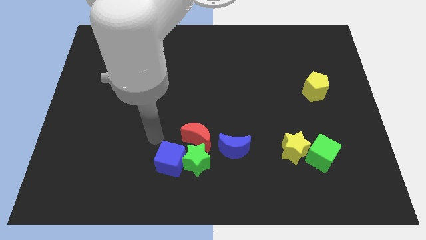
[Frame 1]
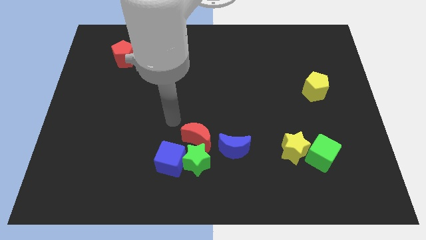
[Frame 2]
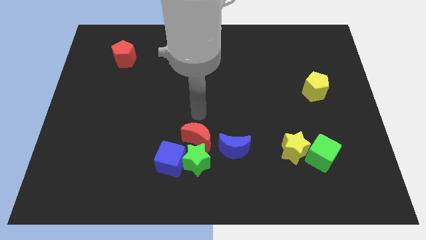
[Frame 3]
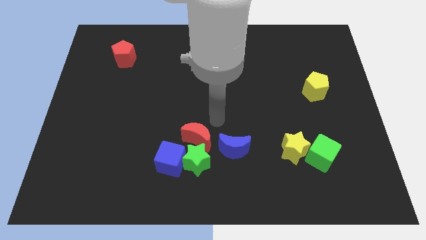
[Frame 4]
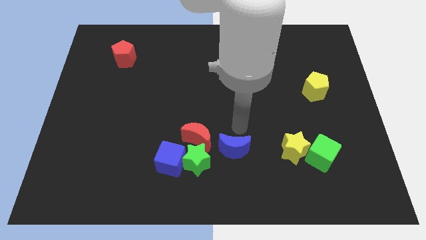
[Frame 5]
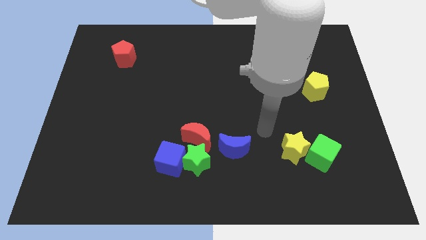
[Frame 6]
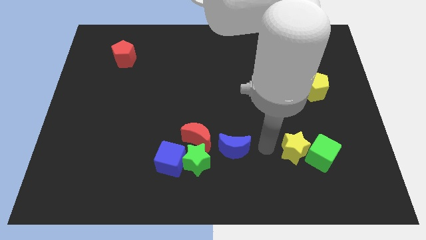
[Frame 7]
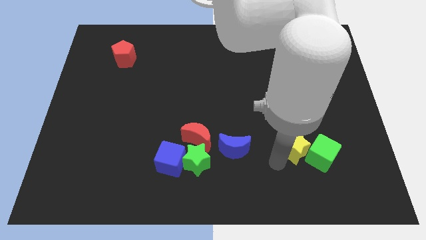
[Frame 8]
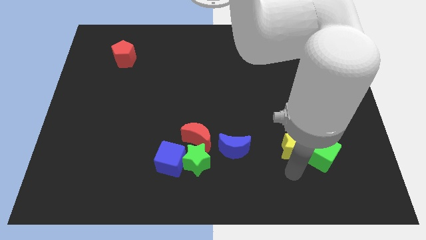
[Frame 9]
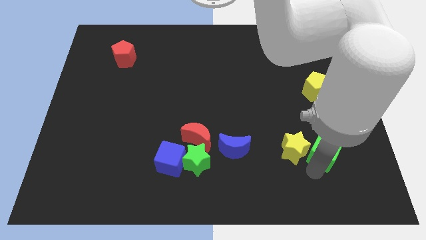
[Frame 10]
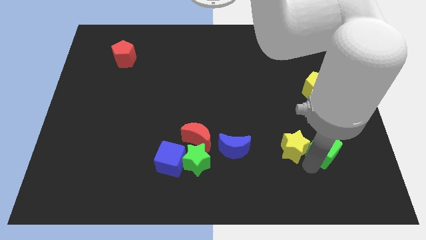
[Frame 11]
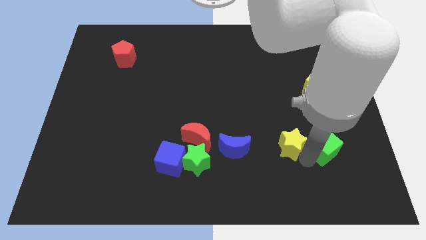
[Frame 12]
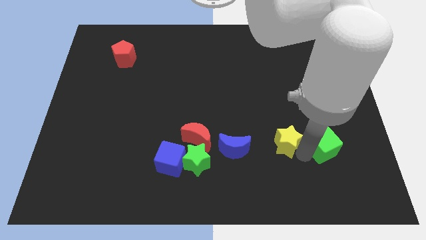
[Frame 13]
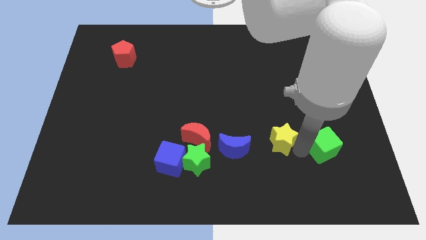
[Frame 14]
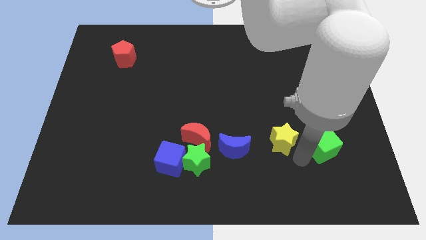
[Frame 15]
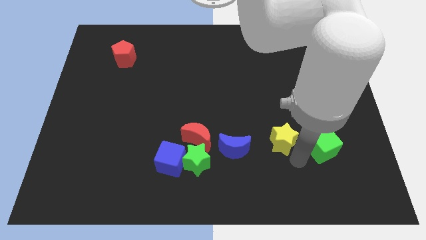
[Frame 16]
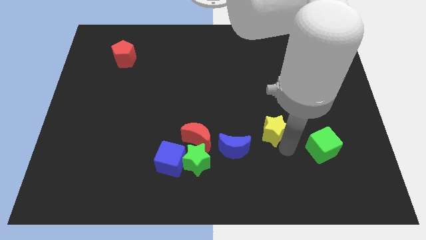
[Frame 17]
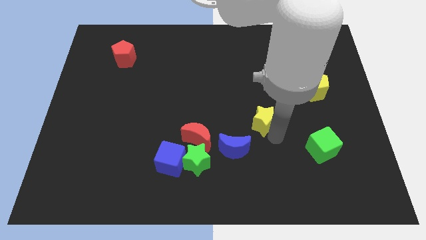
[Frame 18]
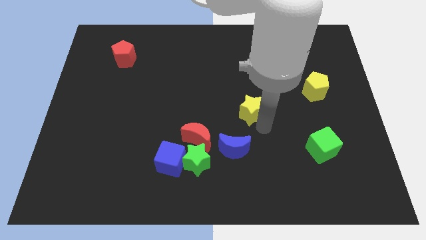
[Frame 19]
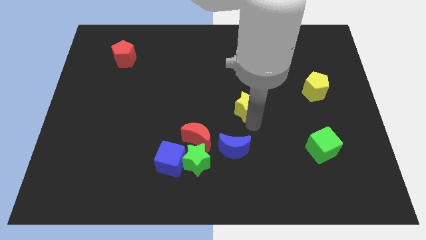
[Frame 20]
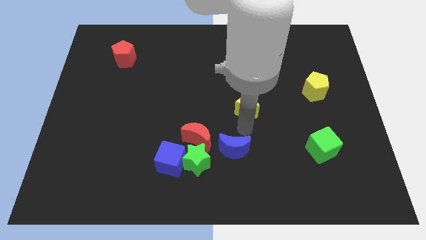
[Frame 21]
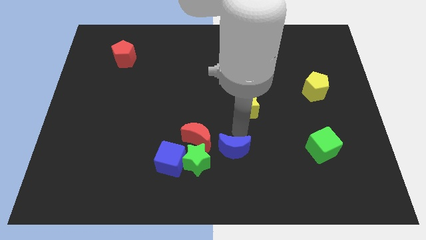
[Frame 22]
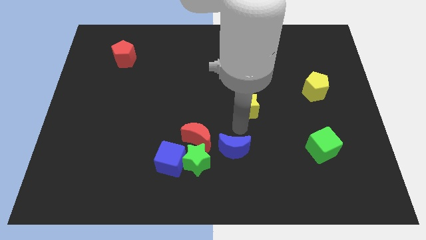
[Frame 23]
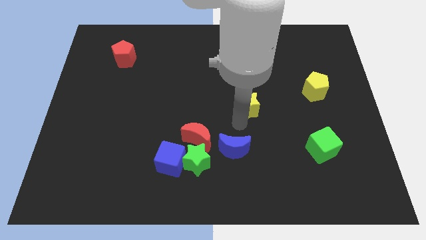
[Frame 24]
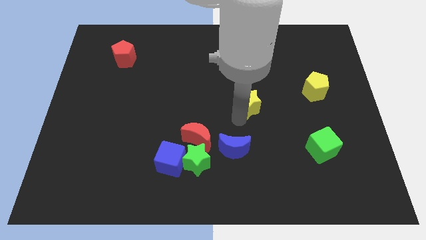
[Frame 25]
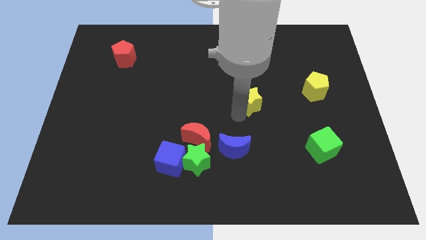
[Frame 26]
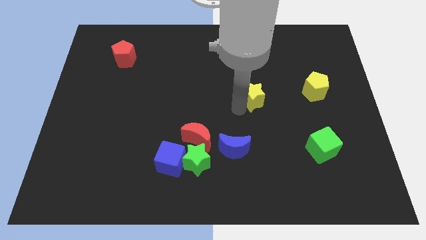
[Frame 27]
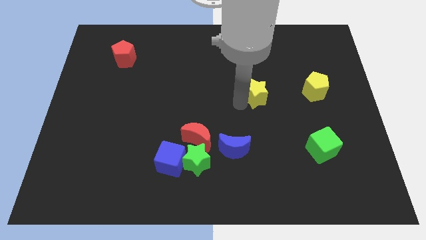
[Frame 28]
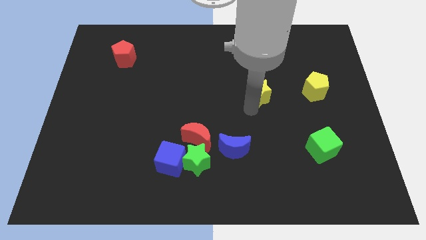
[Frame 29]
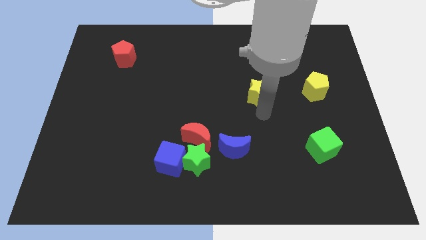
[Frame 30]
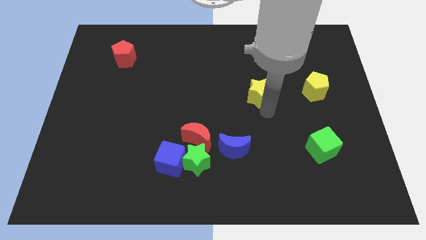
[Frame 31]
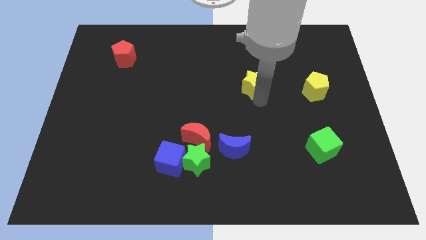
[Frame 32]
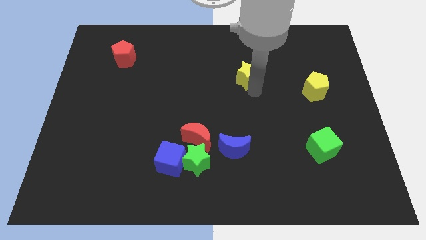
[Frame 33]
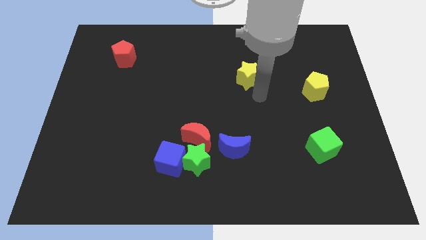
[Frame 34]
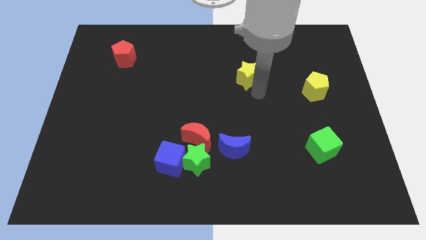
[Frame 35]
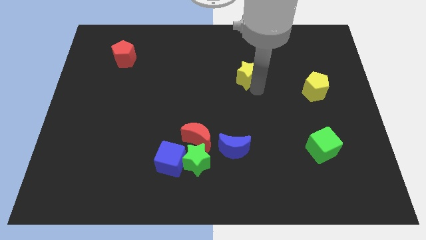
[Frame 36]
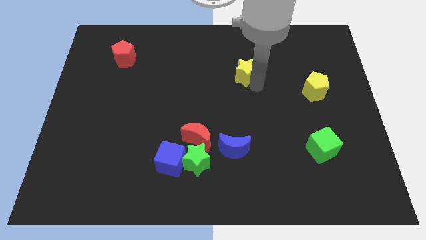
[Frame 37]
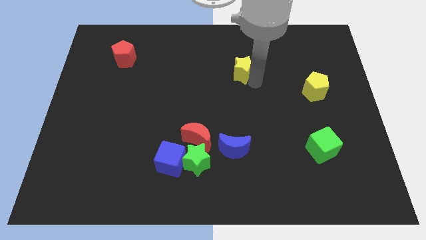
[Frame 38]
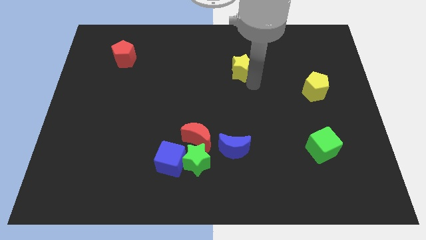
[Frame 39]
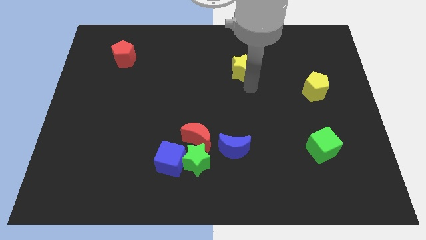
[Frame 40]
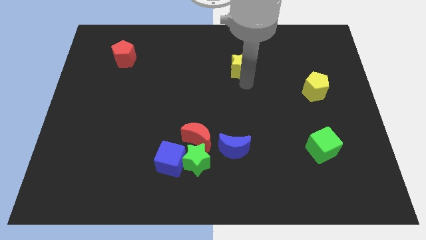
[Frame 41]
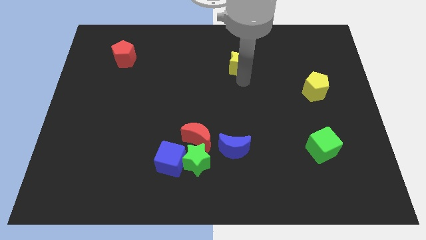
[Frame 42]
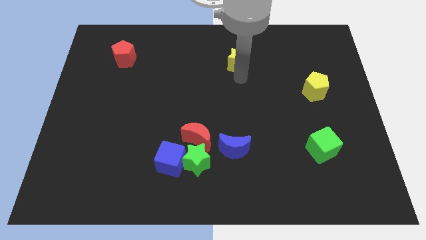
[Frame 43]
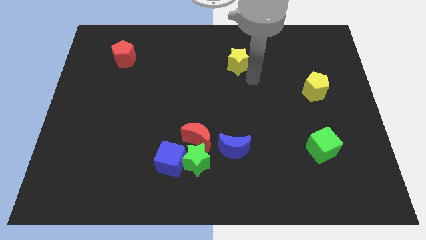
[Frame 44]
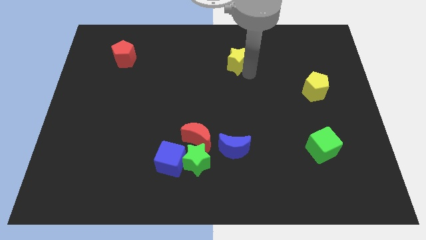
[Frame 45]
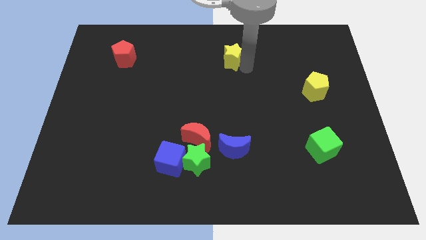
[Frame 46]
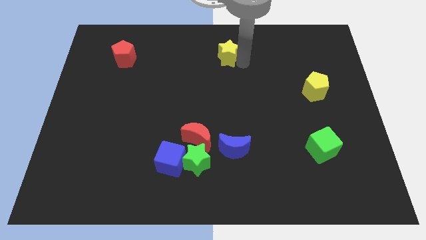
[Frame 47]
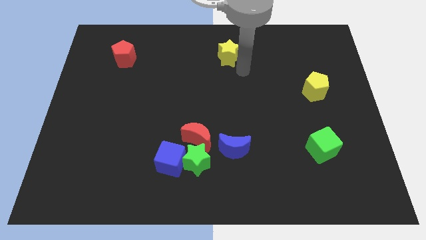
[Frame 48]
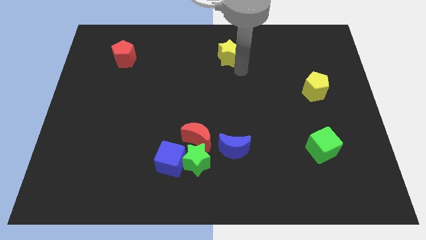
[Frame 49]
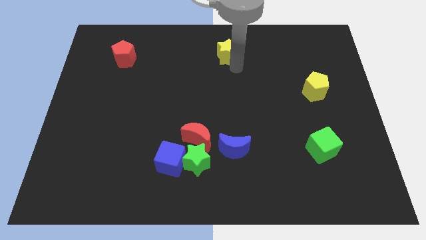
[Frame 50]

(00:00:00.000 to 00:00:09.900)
move the yellow star to the top side

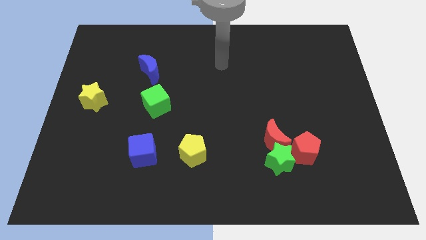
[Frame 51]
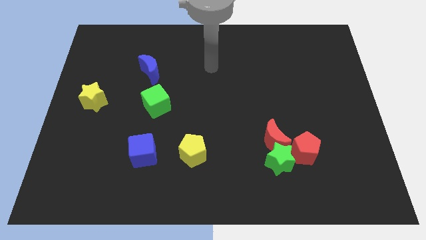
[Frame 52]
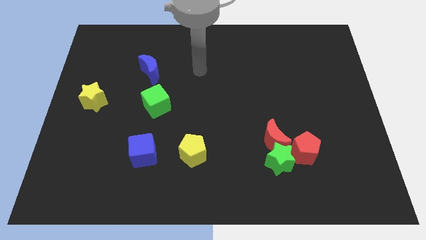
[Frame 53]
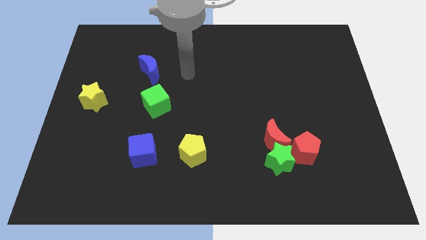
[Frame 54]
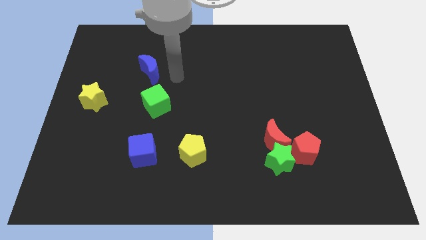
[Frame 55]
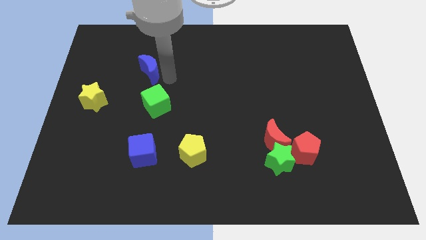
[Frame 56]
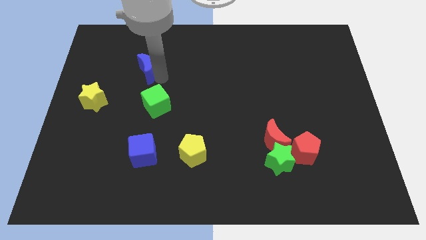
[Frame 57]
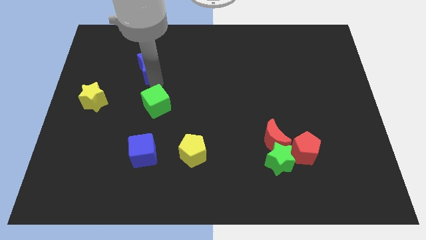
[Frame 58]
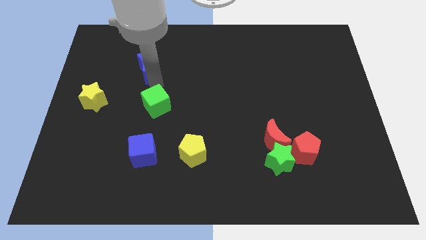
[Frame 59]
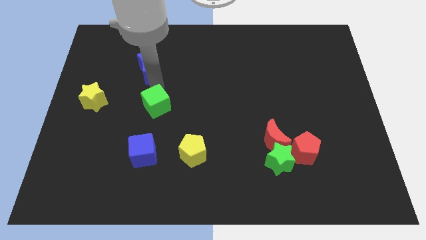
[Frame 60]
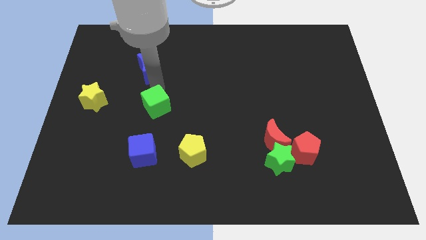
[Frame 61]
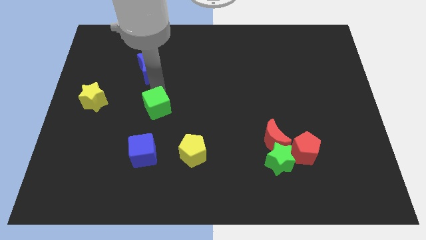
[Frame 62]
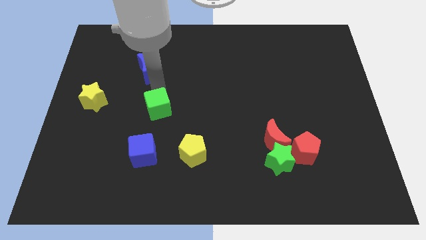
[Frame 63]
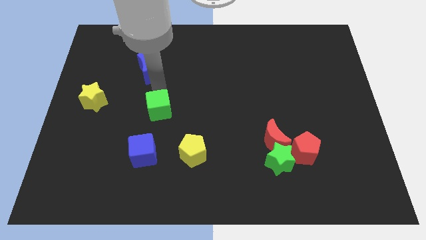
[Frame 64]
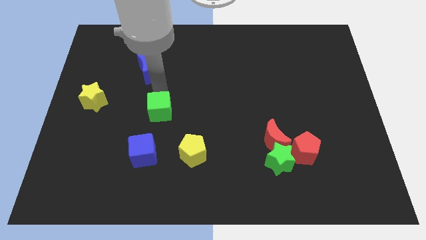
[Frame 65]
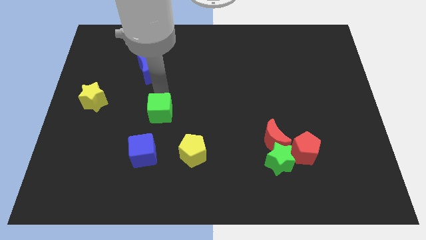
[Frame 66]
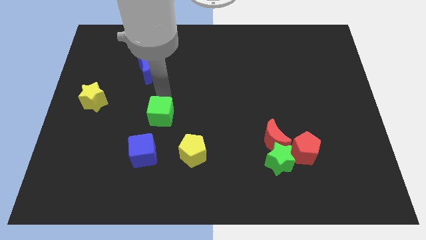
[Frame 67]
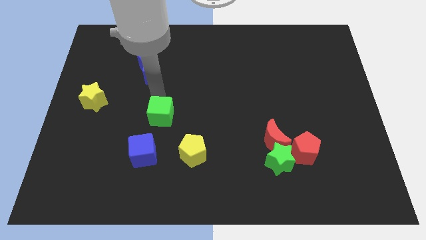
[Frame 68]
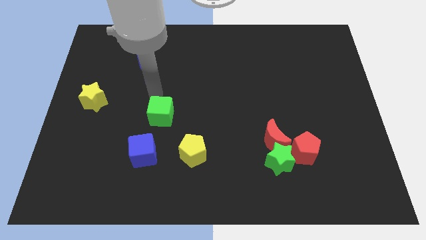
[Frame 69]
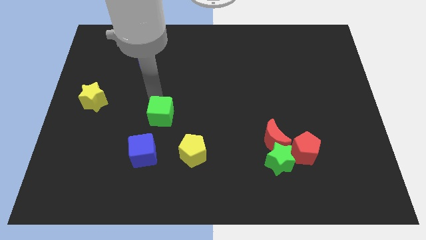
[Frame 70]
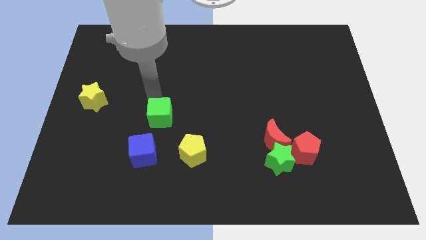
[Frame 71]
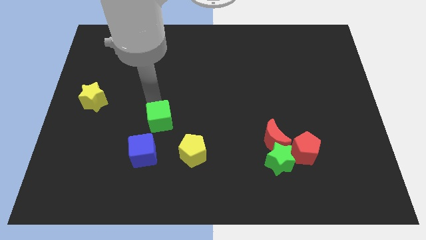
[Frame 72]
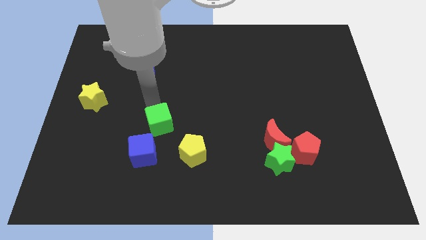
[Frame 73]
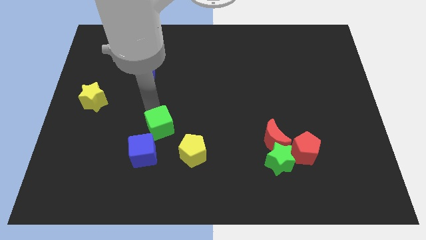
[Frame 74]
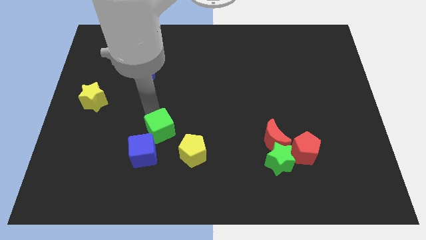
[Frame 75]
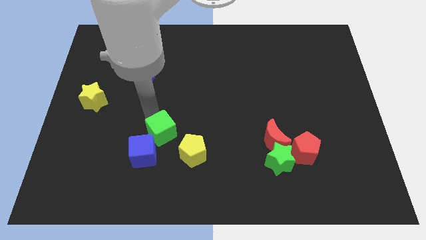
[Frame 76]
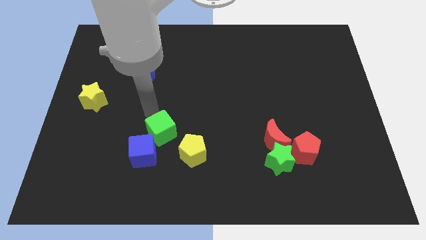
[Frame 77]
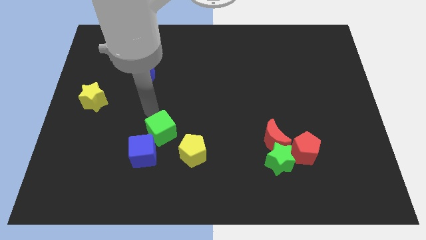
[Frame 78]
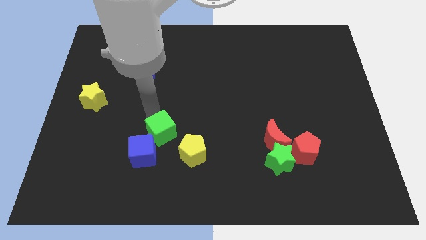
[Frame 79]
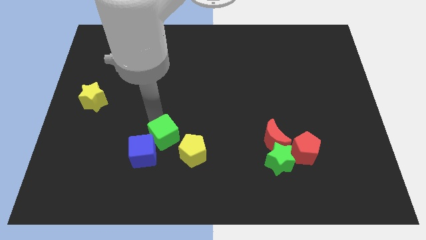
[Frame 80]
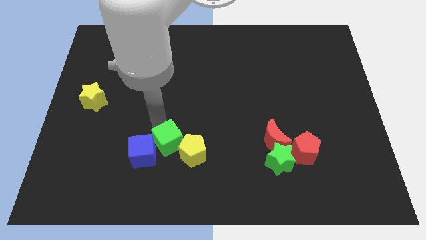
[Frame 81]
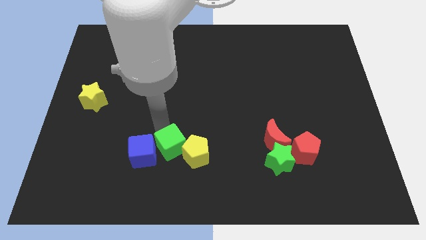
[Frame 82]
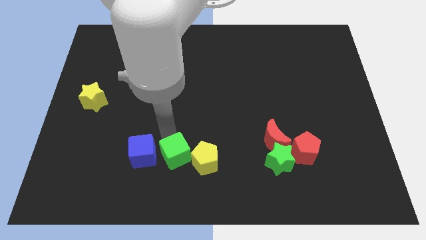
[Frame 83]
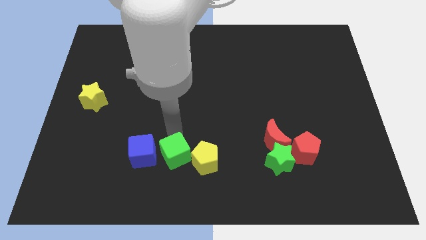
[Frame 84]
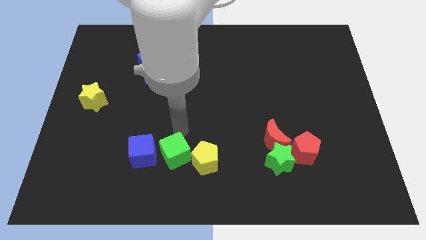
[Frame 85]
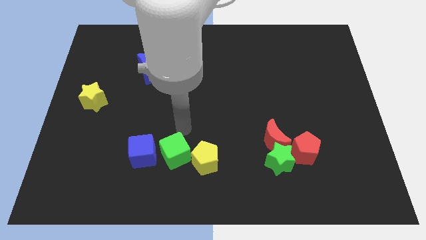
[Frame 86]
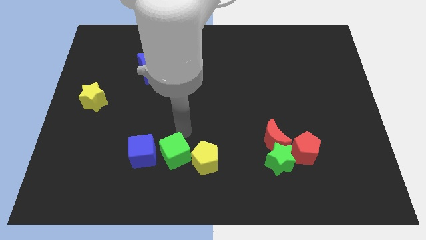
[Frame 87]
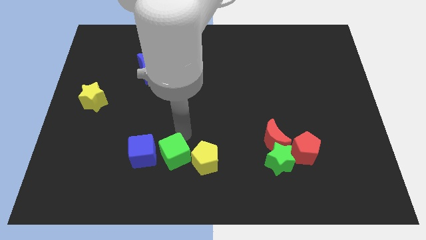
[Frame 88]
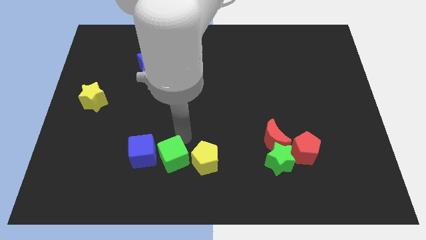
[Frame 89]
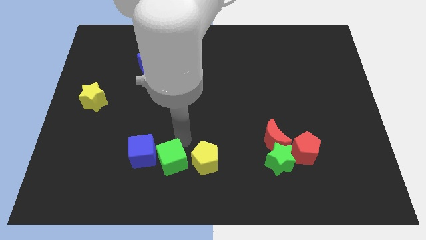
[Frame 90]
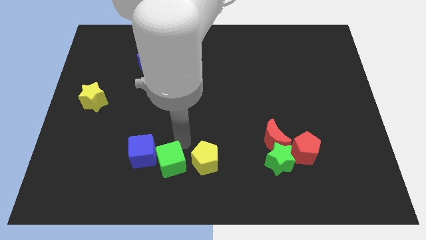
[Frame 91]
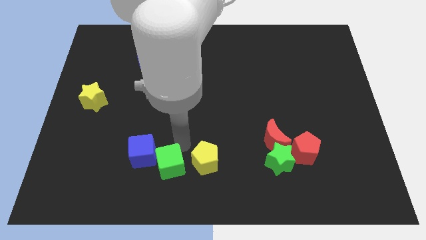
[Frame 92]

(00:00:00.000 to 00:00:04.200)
put the green cube to the bottom side
